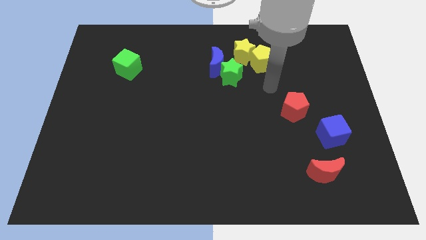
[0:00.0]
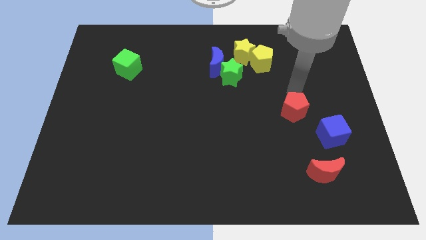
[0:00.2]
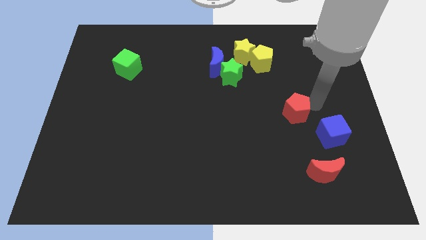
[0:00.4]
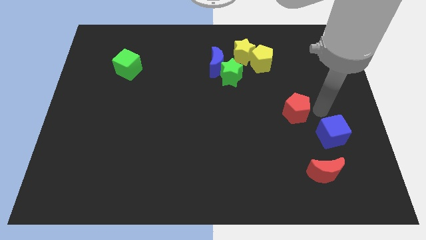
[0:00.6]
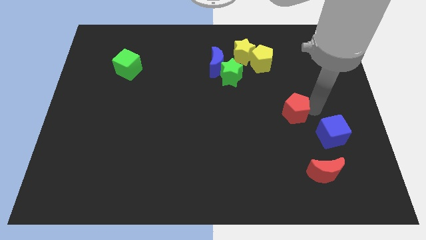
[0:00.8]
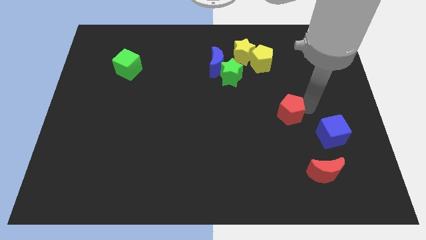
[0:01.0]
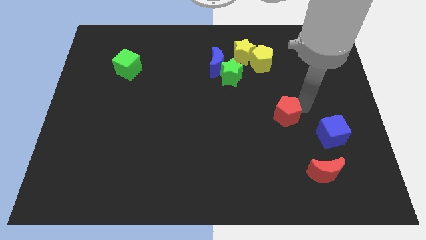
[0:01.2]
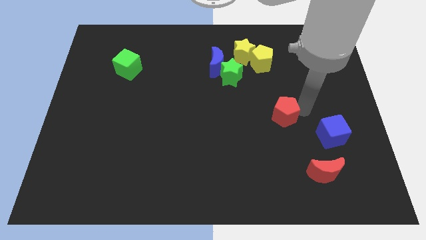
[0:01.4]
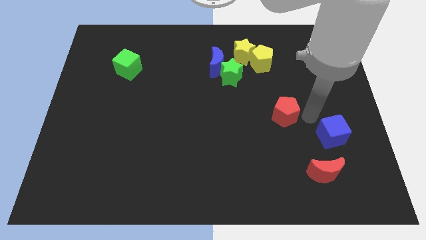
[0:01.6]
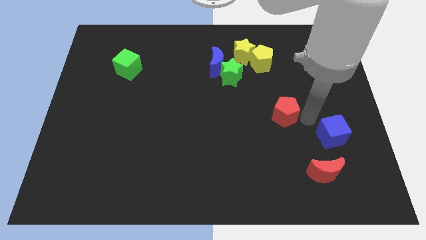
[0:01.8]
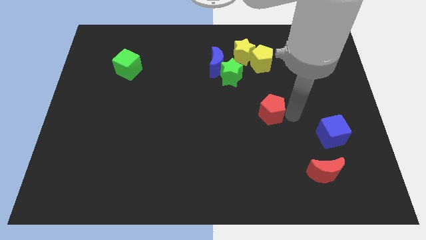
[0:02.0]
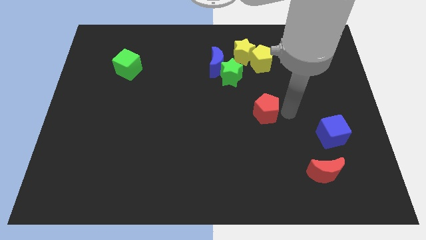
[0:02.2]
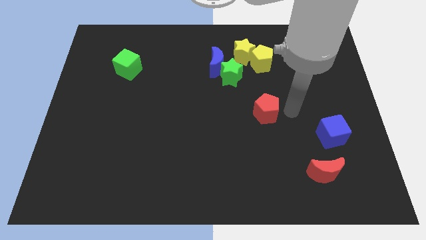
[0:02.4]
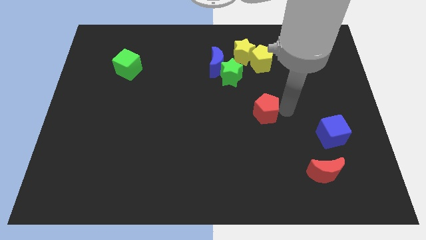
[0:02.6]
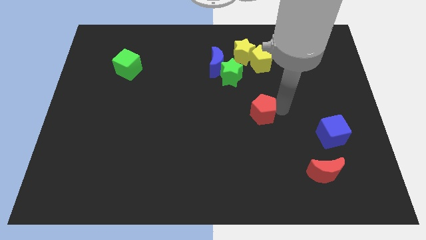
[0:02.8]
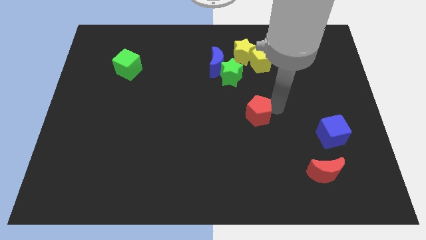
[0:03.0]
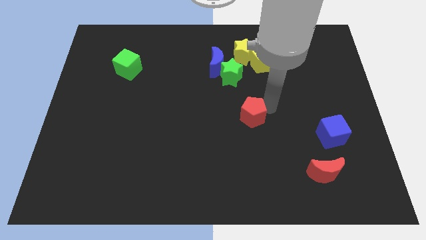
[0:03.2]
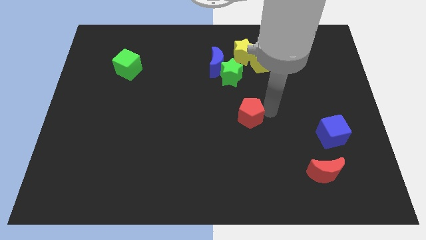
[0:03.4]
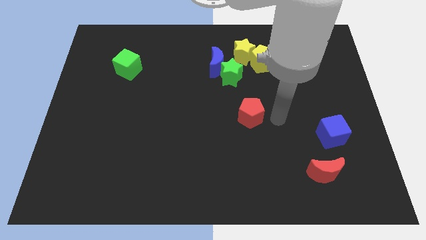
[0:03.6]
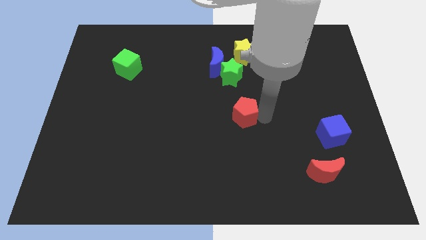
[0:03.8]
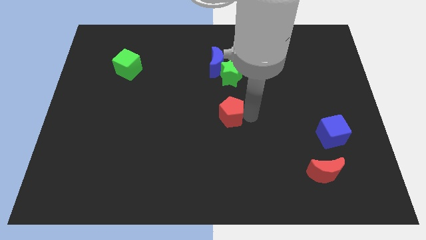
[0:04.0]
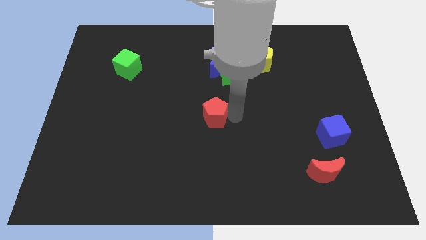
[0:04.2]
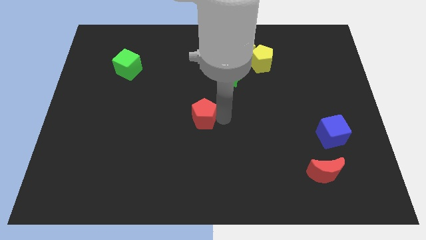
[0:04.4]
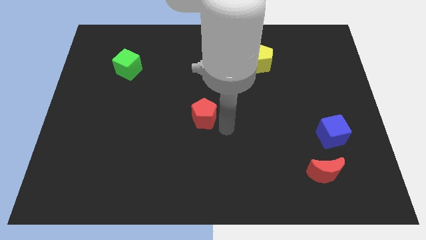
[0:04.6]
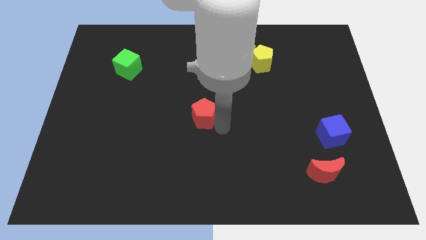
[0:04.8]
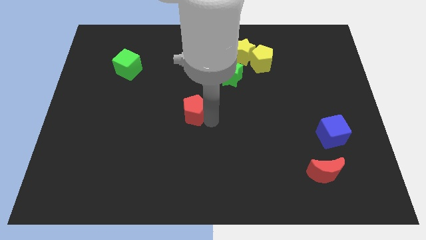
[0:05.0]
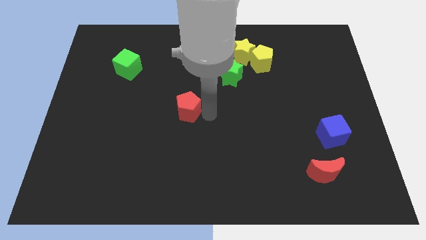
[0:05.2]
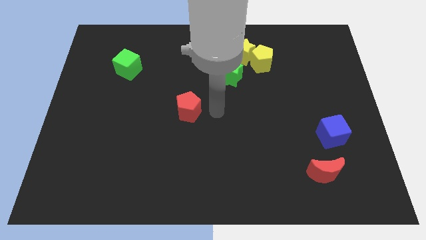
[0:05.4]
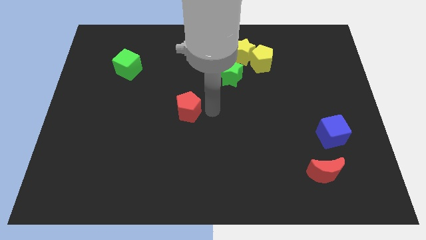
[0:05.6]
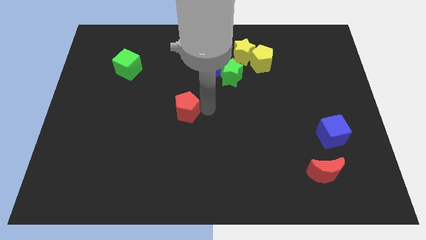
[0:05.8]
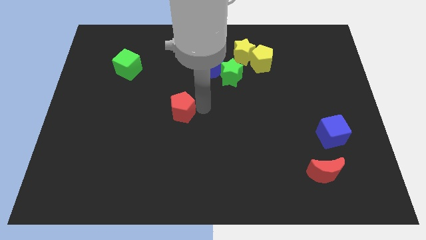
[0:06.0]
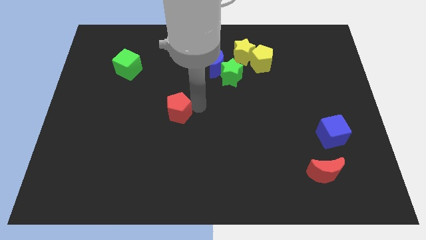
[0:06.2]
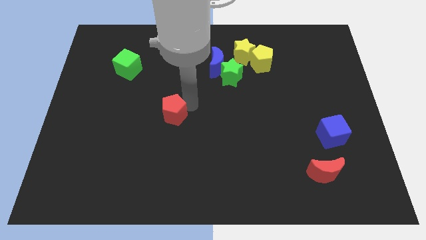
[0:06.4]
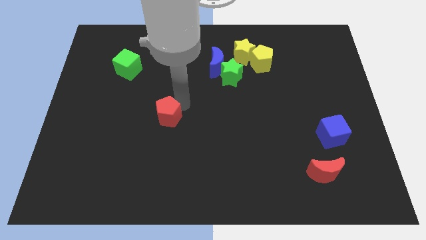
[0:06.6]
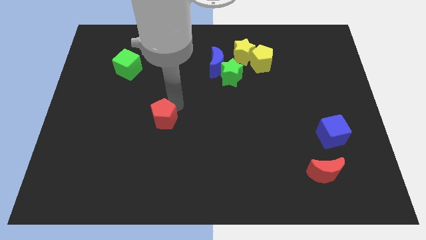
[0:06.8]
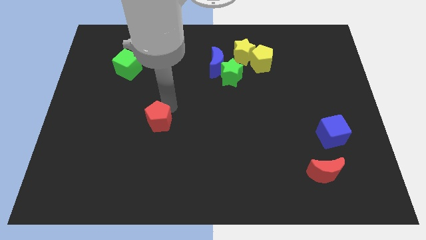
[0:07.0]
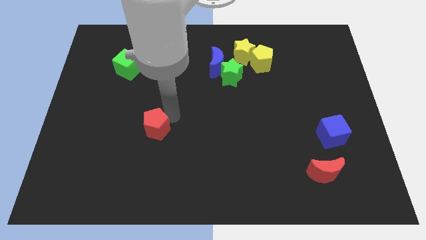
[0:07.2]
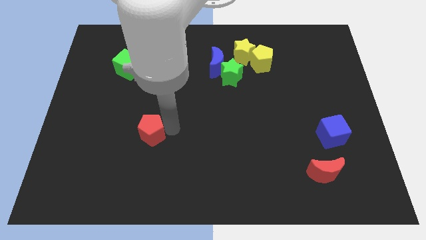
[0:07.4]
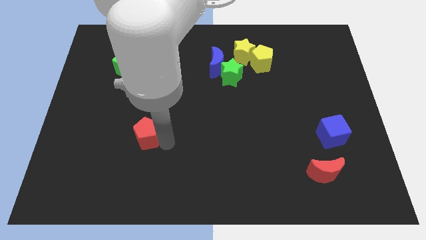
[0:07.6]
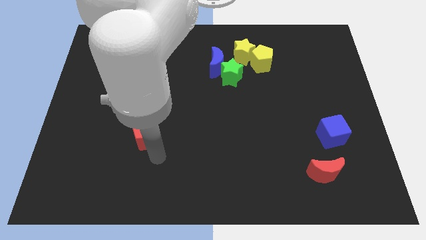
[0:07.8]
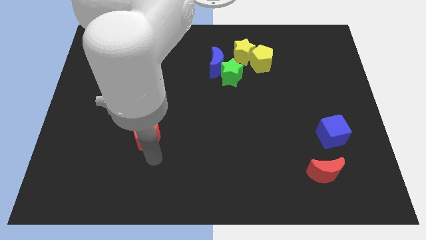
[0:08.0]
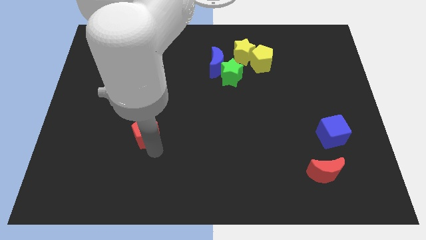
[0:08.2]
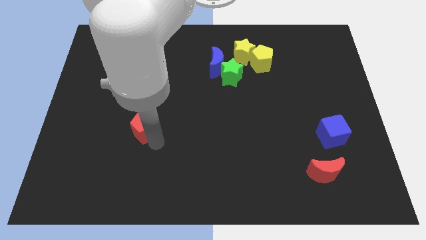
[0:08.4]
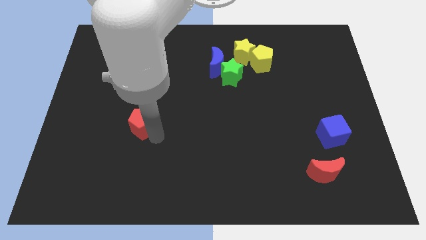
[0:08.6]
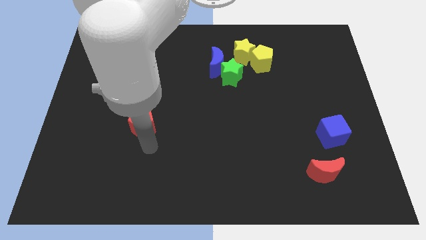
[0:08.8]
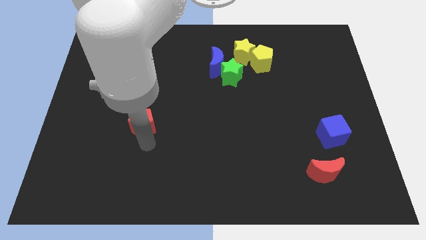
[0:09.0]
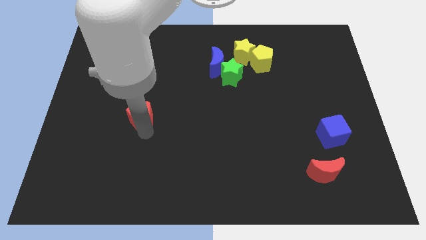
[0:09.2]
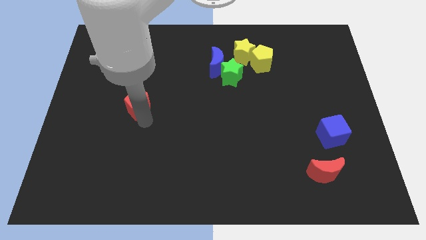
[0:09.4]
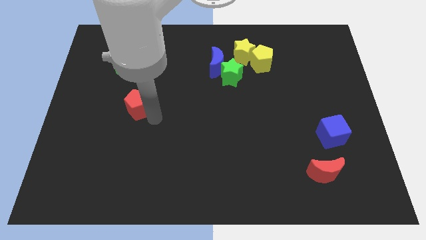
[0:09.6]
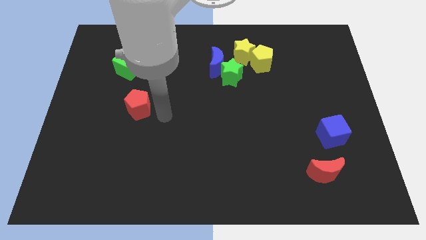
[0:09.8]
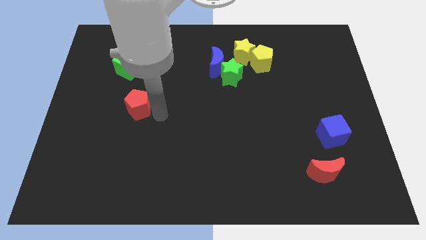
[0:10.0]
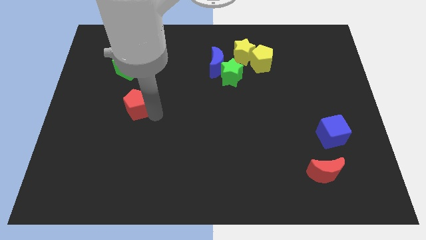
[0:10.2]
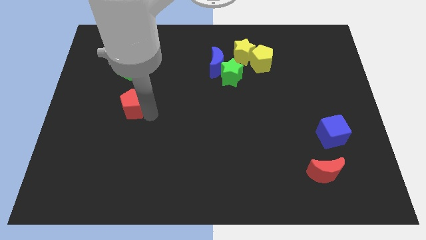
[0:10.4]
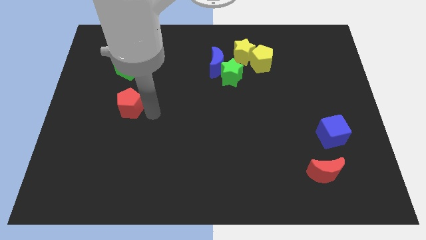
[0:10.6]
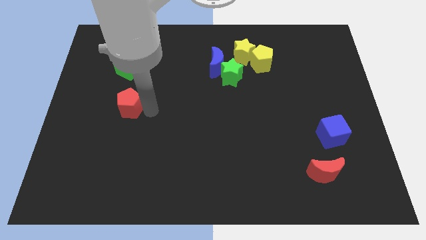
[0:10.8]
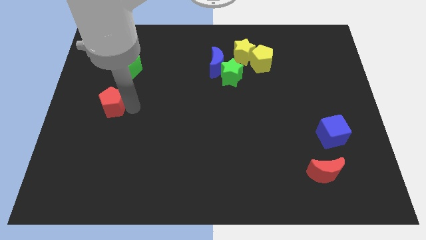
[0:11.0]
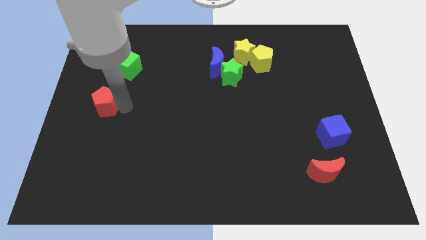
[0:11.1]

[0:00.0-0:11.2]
push the red pentagon to the center left
